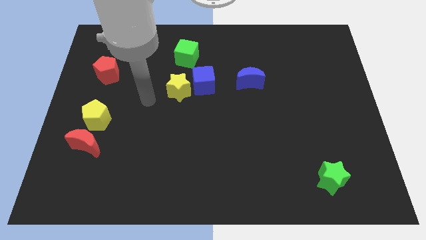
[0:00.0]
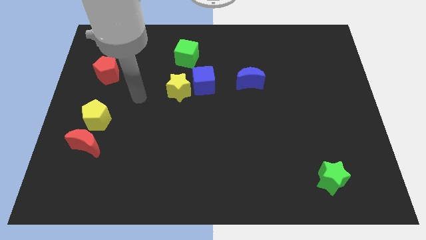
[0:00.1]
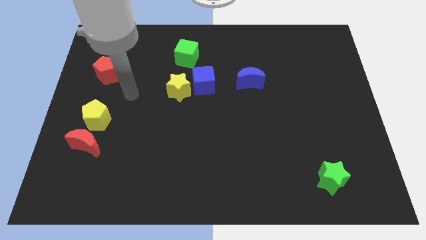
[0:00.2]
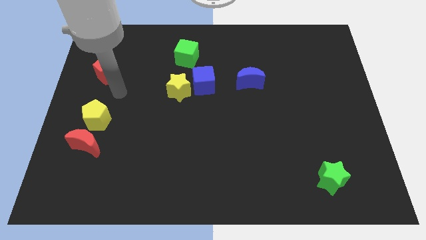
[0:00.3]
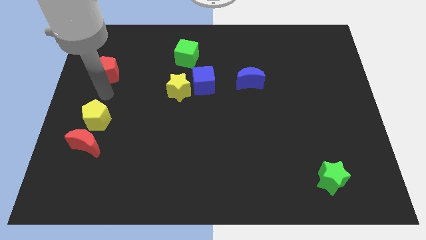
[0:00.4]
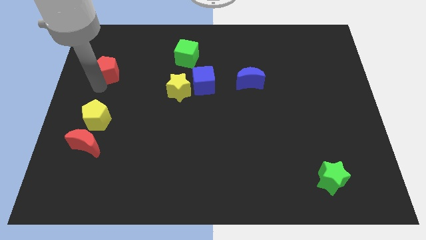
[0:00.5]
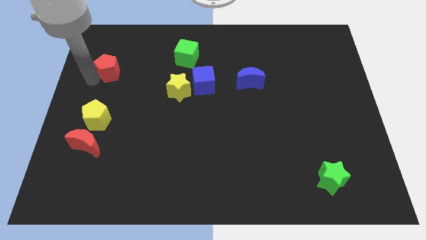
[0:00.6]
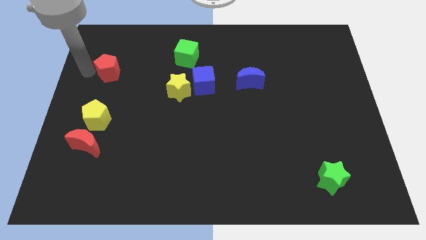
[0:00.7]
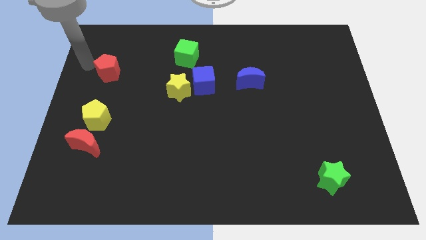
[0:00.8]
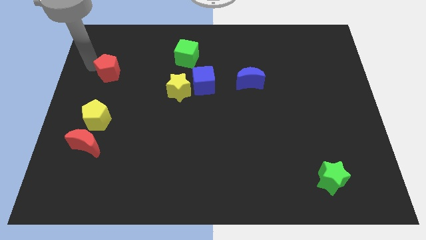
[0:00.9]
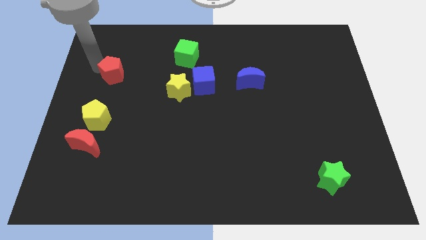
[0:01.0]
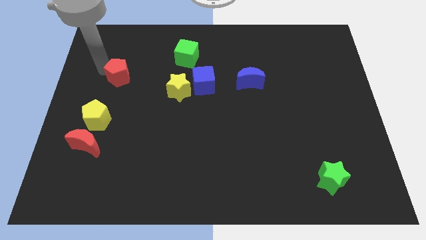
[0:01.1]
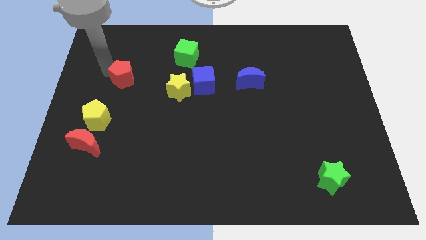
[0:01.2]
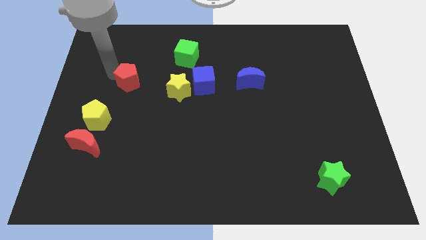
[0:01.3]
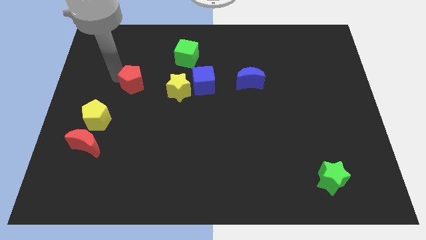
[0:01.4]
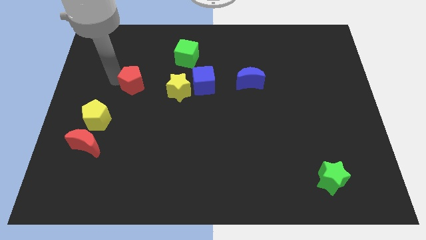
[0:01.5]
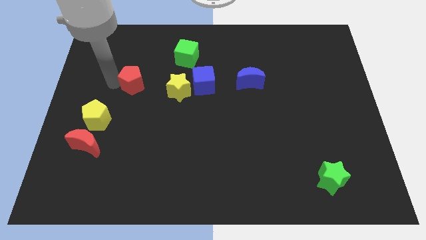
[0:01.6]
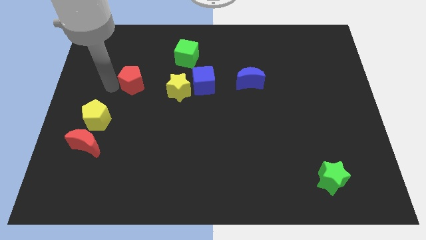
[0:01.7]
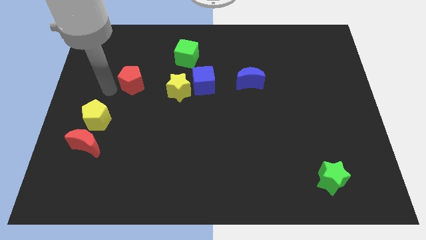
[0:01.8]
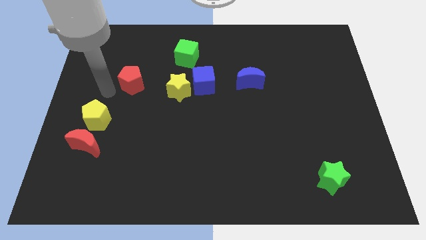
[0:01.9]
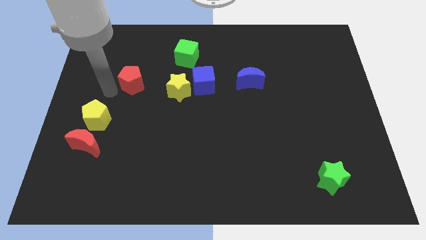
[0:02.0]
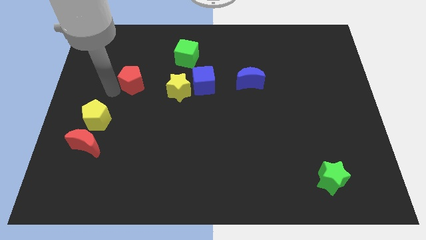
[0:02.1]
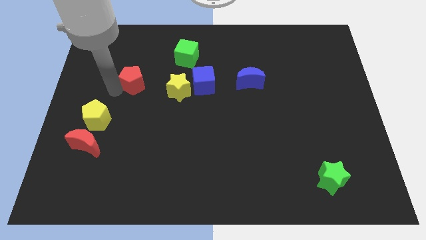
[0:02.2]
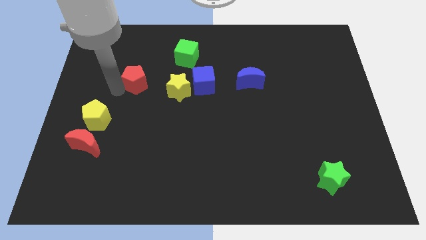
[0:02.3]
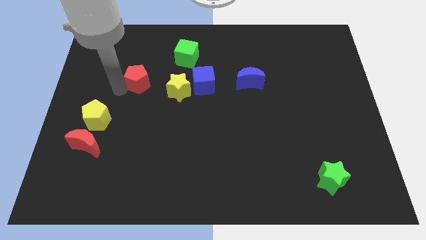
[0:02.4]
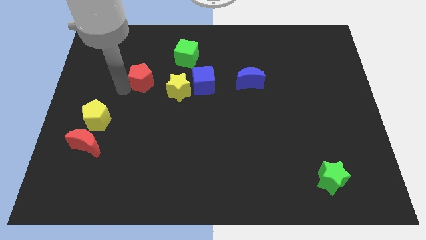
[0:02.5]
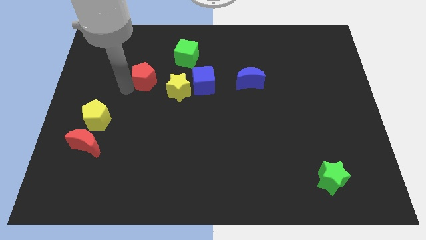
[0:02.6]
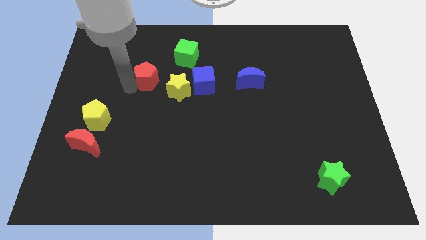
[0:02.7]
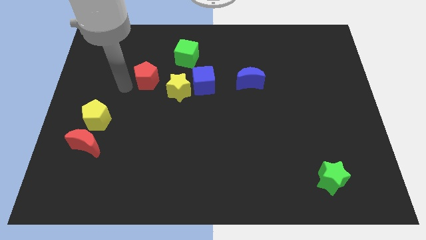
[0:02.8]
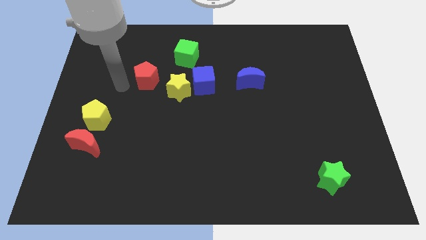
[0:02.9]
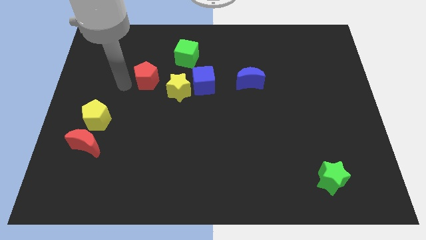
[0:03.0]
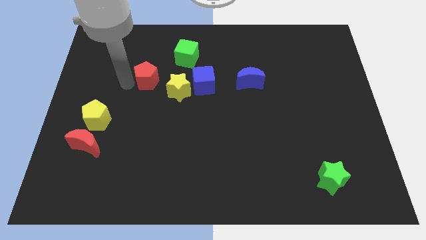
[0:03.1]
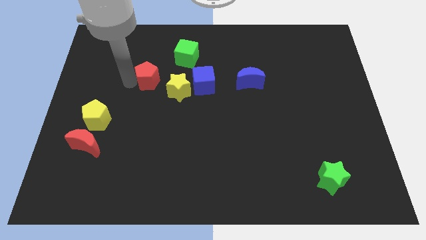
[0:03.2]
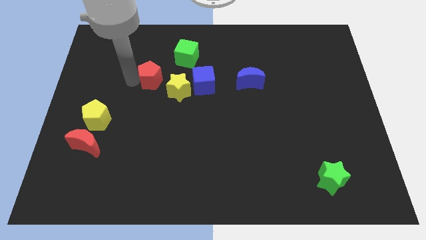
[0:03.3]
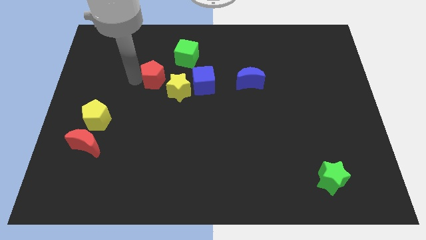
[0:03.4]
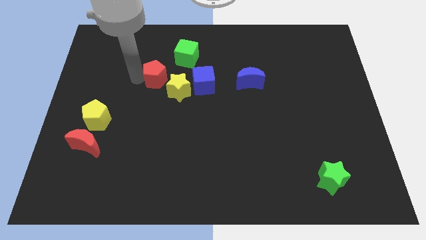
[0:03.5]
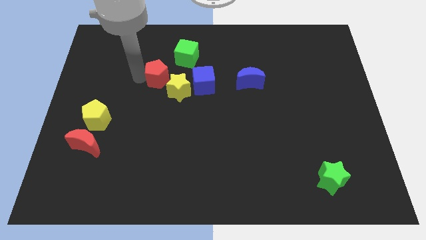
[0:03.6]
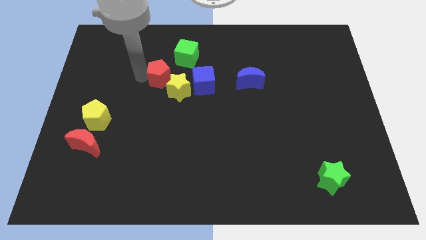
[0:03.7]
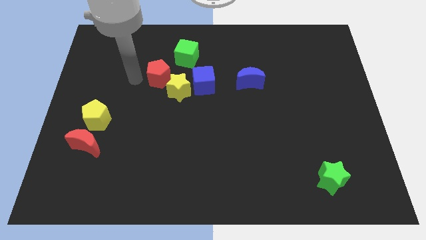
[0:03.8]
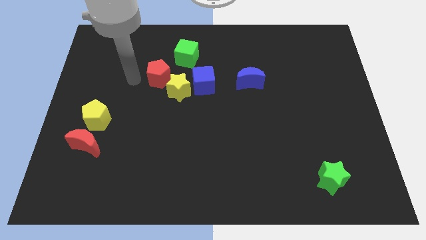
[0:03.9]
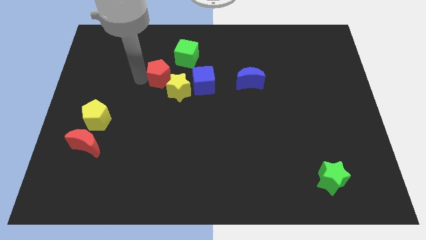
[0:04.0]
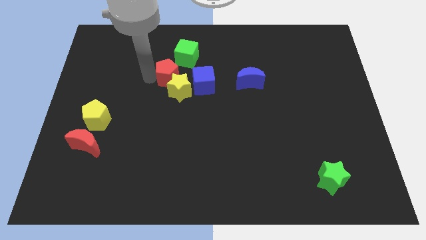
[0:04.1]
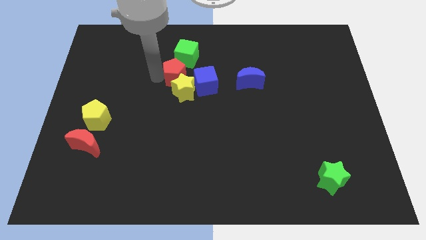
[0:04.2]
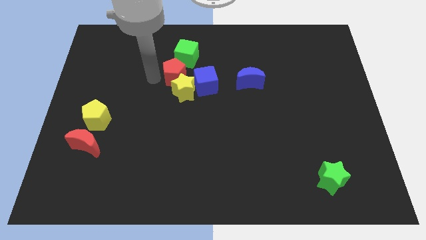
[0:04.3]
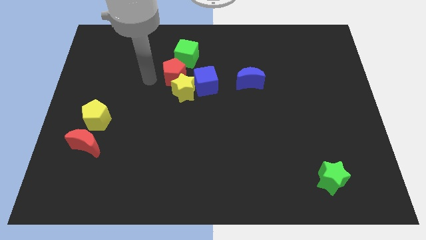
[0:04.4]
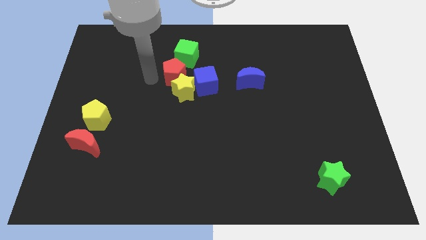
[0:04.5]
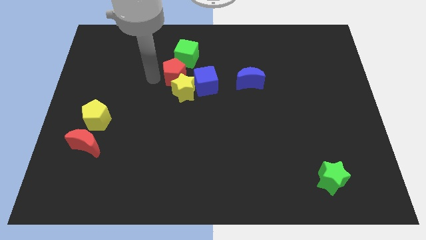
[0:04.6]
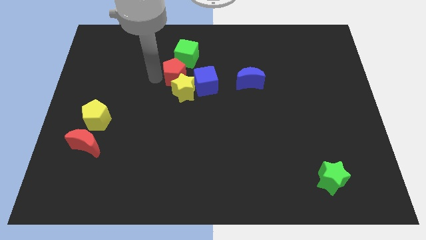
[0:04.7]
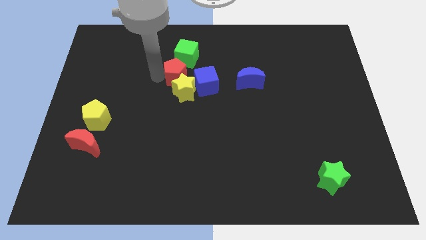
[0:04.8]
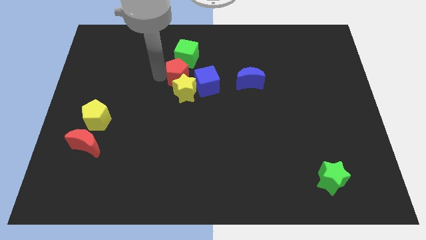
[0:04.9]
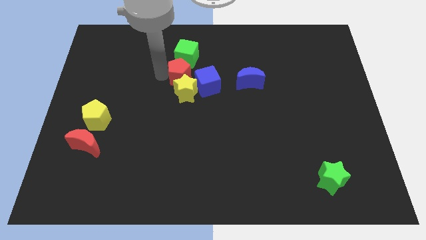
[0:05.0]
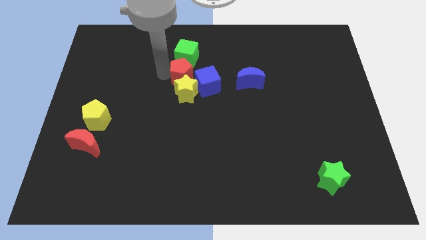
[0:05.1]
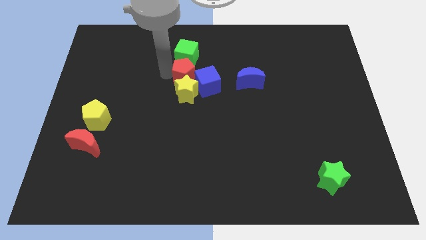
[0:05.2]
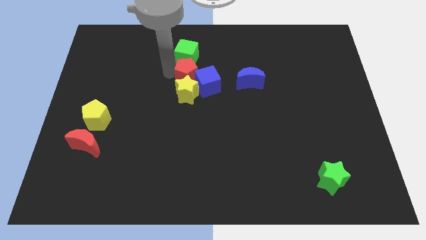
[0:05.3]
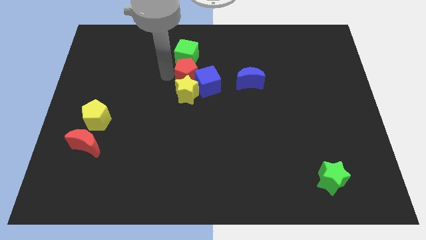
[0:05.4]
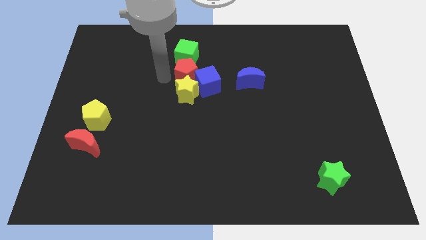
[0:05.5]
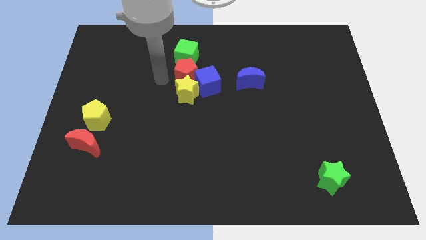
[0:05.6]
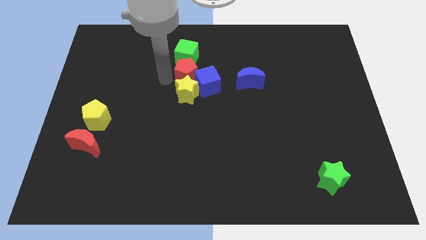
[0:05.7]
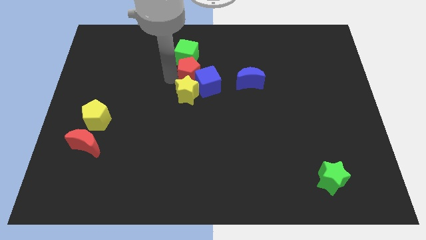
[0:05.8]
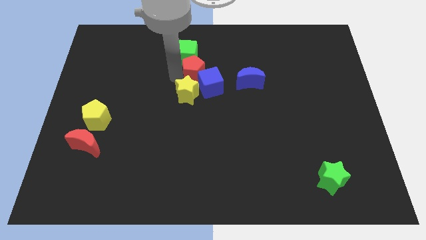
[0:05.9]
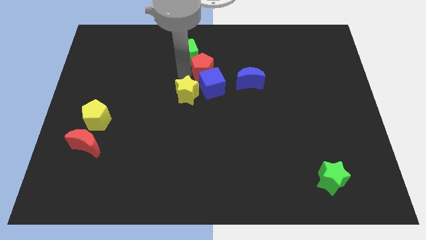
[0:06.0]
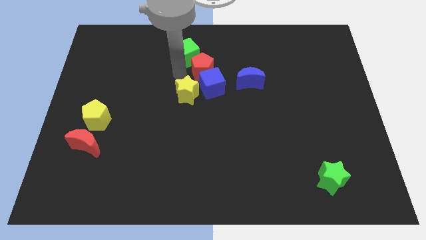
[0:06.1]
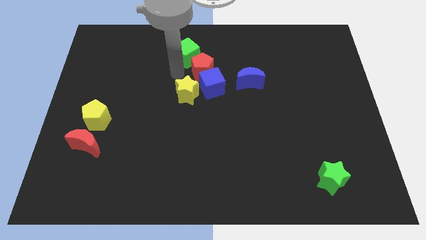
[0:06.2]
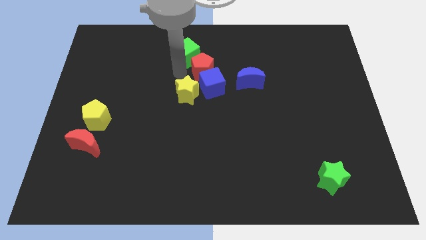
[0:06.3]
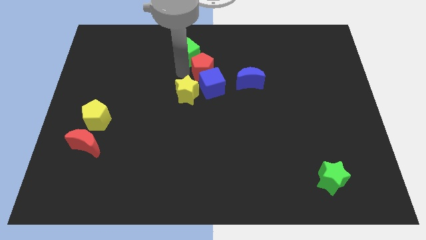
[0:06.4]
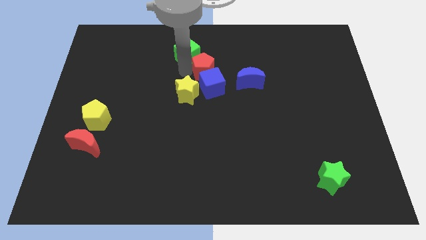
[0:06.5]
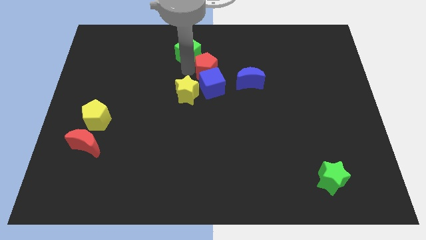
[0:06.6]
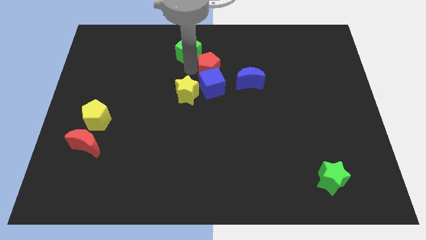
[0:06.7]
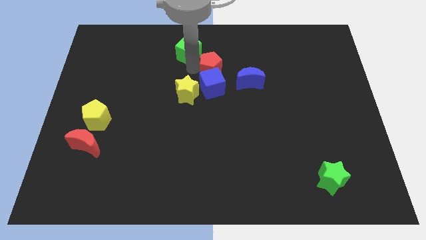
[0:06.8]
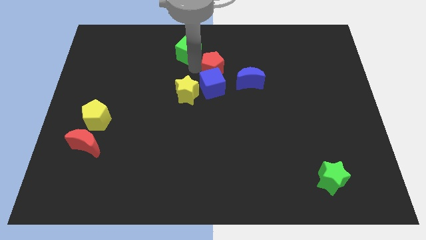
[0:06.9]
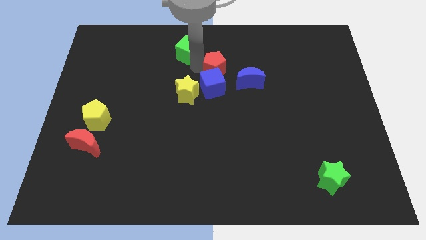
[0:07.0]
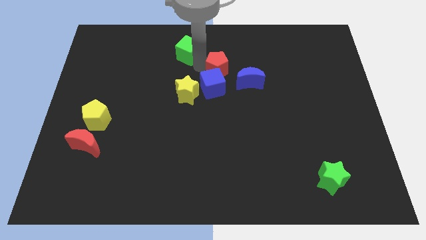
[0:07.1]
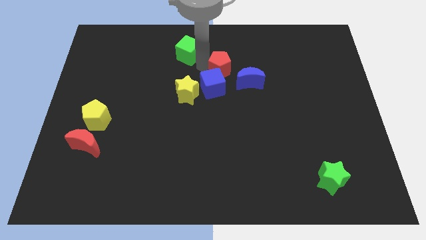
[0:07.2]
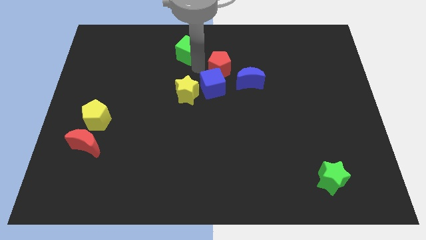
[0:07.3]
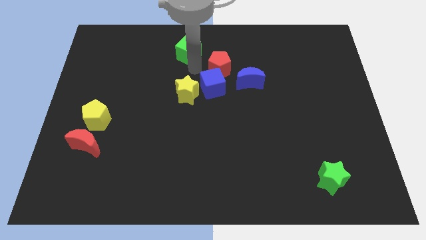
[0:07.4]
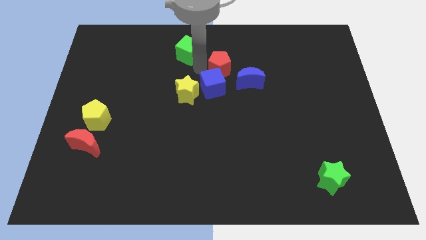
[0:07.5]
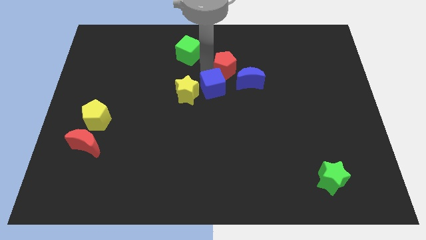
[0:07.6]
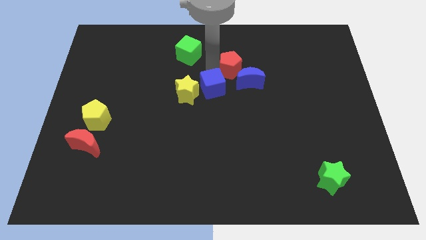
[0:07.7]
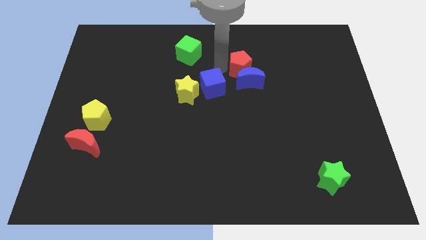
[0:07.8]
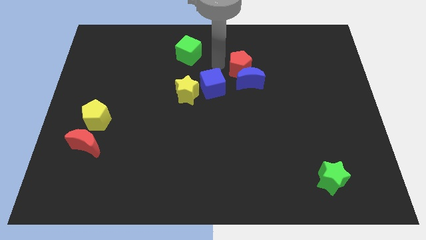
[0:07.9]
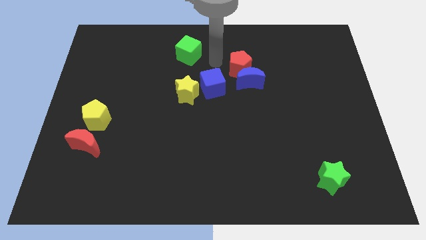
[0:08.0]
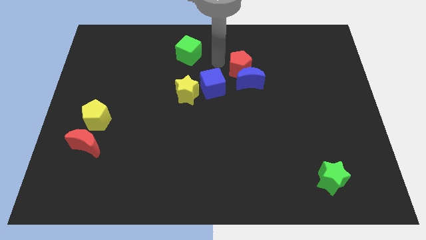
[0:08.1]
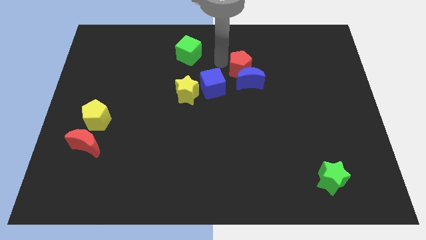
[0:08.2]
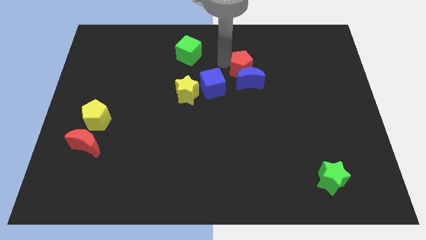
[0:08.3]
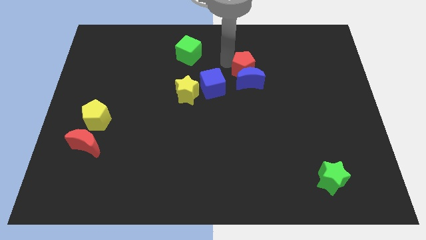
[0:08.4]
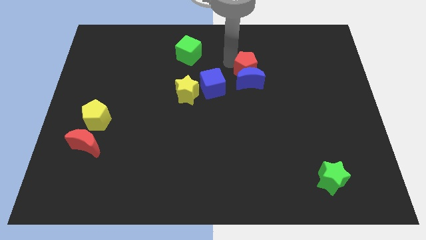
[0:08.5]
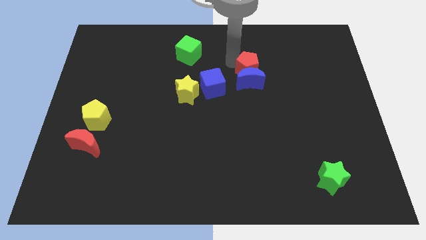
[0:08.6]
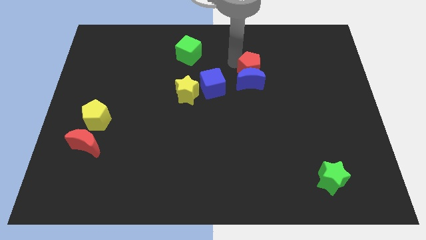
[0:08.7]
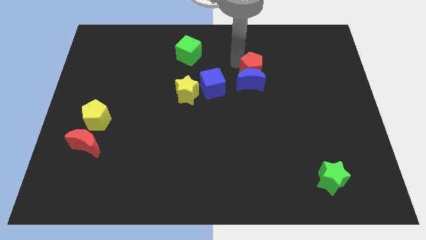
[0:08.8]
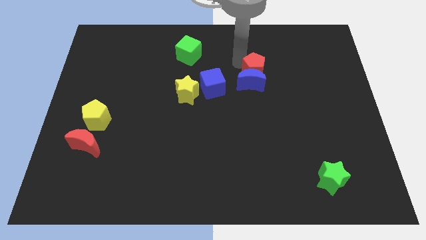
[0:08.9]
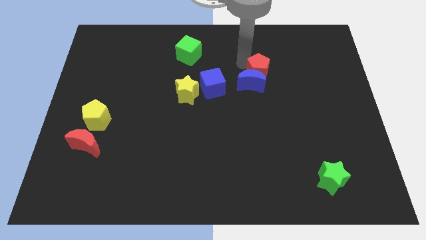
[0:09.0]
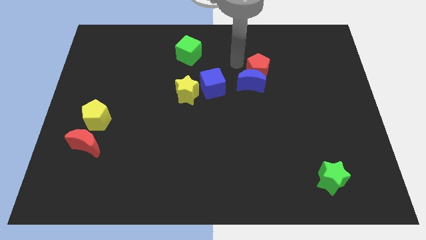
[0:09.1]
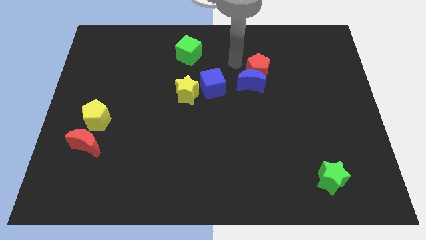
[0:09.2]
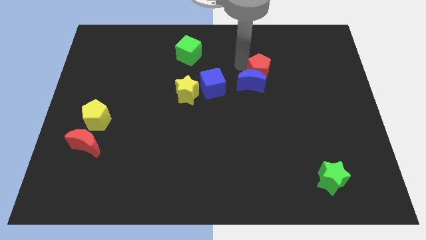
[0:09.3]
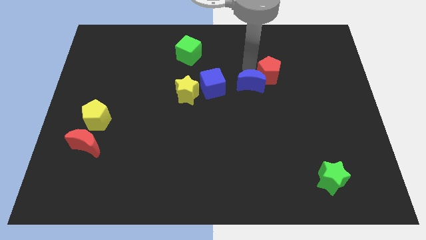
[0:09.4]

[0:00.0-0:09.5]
put the red pentagon to the right of the blue moon
